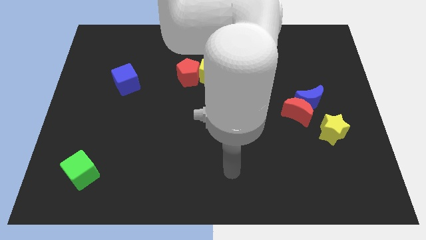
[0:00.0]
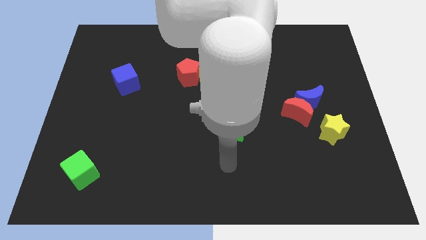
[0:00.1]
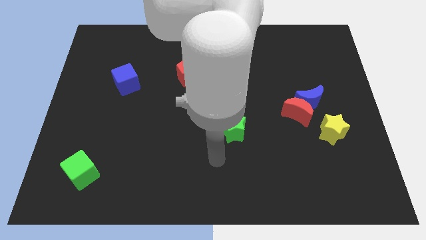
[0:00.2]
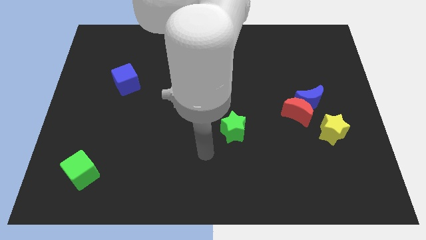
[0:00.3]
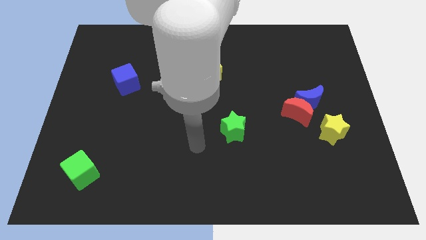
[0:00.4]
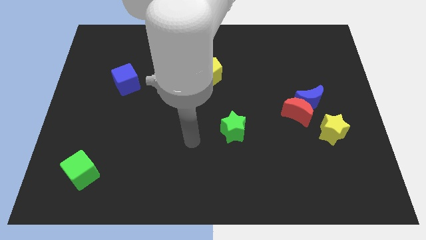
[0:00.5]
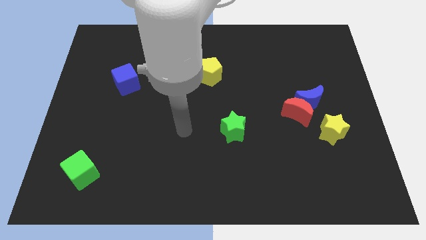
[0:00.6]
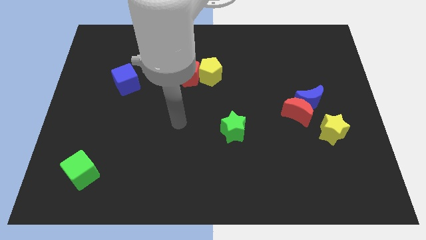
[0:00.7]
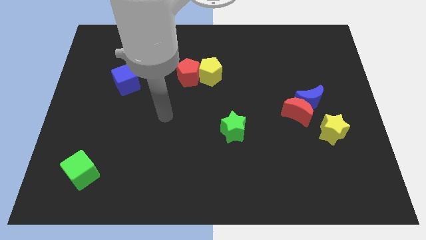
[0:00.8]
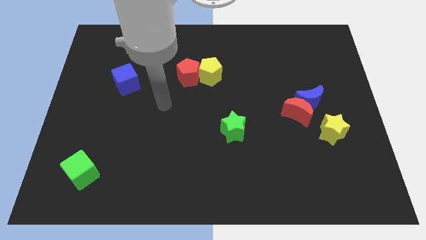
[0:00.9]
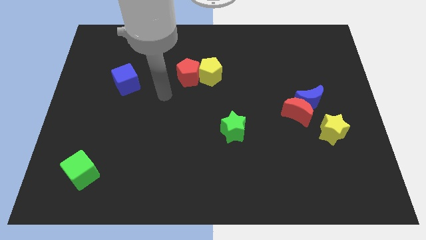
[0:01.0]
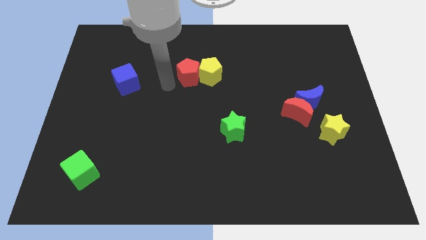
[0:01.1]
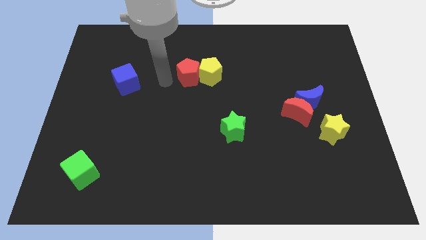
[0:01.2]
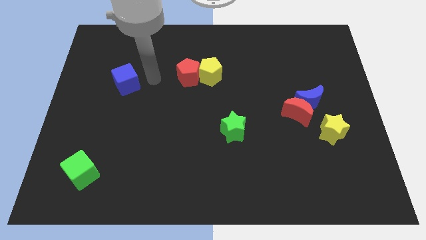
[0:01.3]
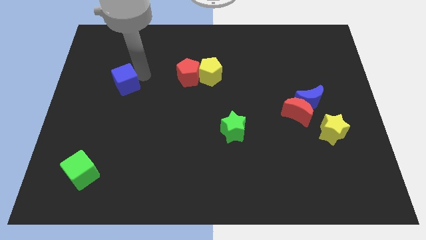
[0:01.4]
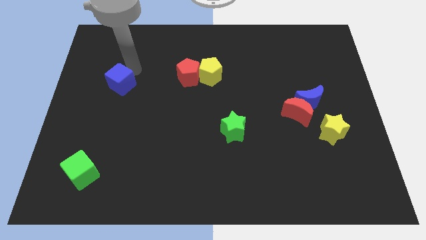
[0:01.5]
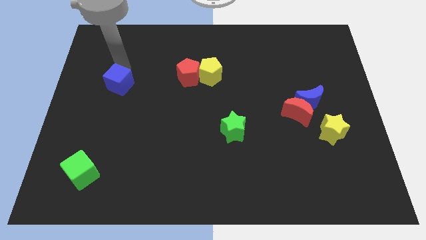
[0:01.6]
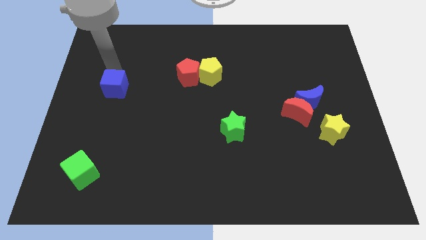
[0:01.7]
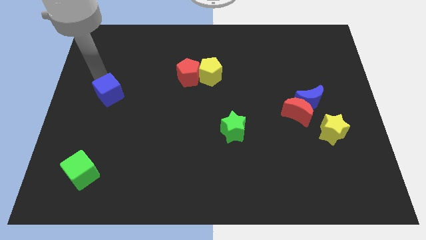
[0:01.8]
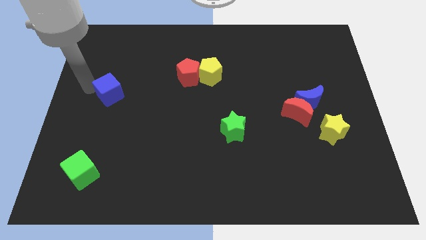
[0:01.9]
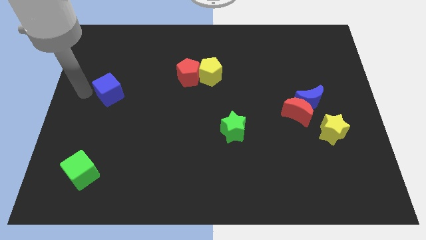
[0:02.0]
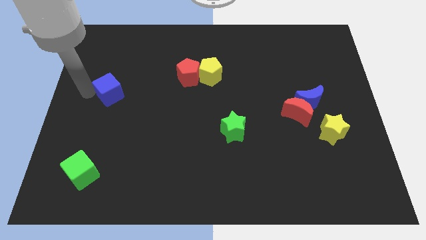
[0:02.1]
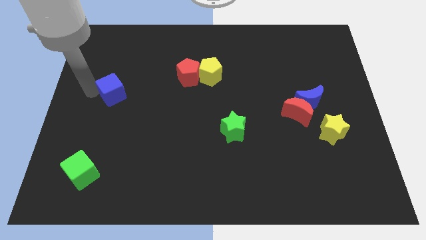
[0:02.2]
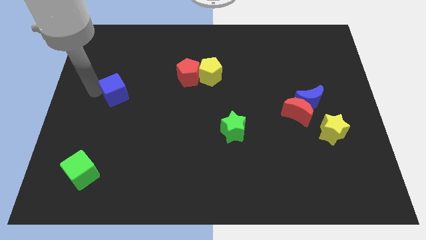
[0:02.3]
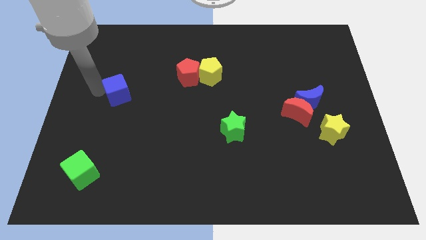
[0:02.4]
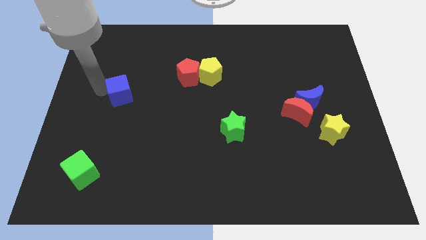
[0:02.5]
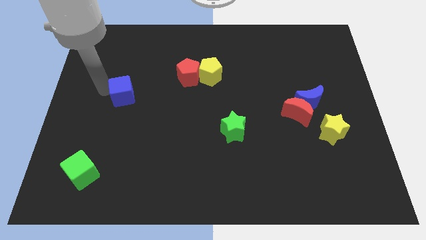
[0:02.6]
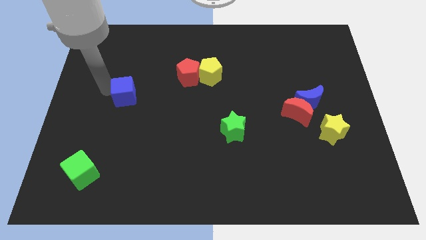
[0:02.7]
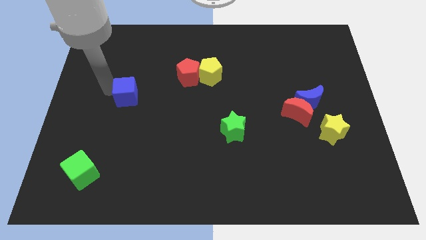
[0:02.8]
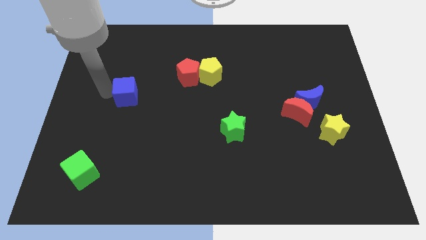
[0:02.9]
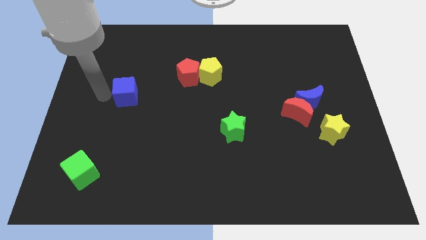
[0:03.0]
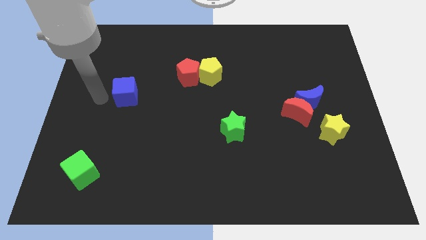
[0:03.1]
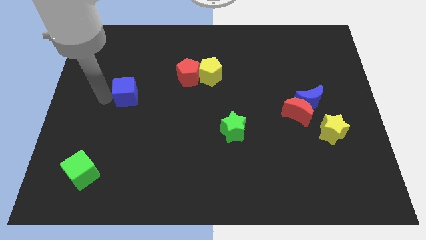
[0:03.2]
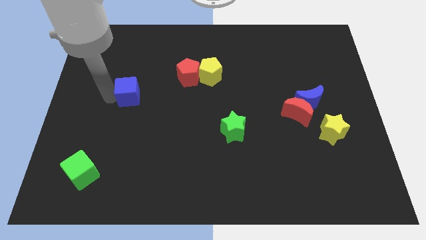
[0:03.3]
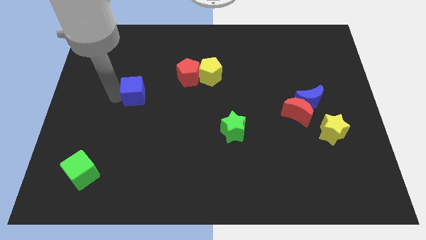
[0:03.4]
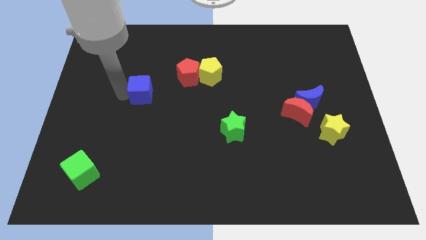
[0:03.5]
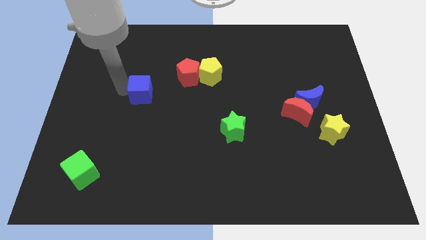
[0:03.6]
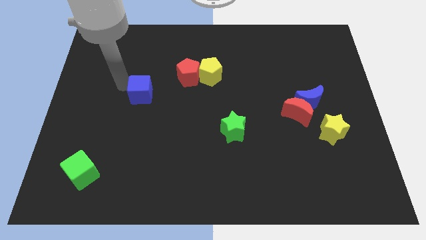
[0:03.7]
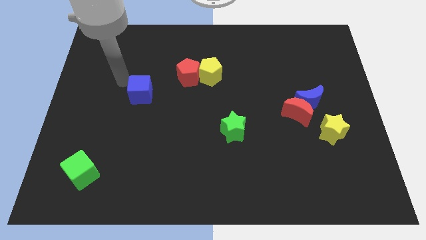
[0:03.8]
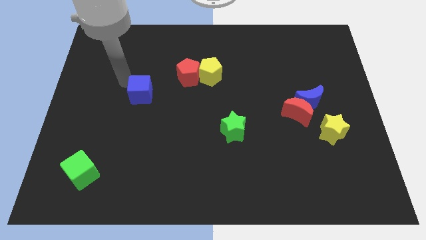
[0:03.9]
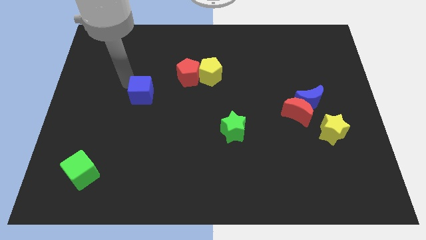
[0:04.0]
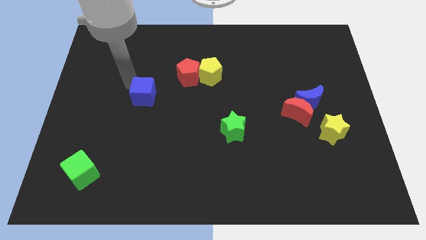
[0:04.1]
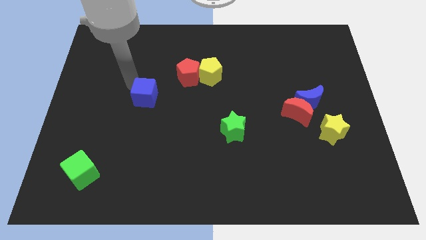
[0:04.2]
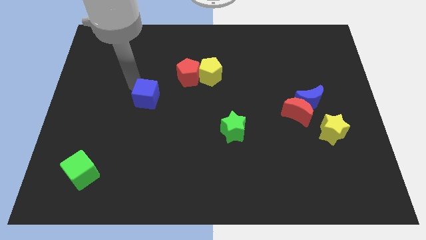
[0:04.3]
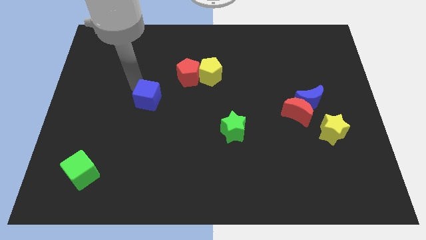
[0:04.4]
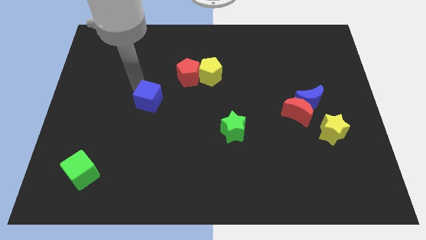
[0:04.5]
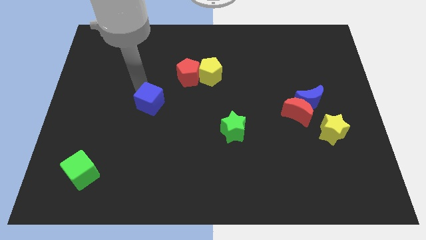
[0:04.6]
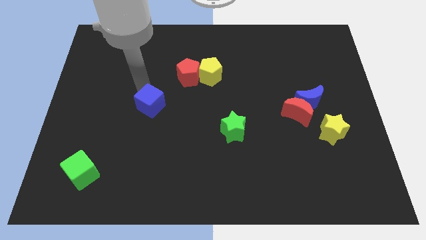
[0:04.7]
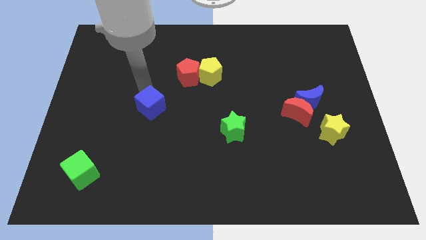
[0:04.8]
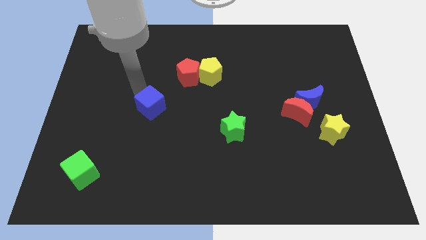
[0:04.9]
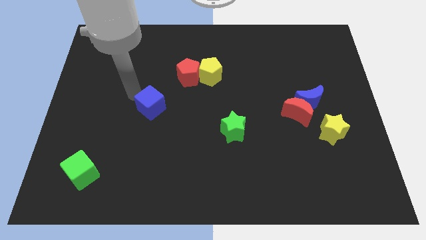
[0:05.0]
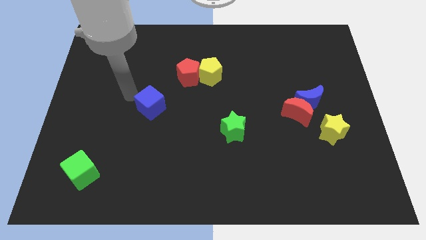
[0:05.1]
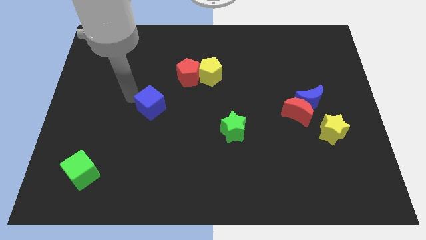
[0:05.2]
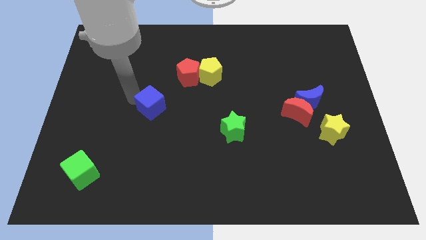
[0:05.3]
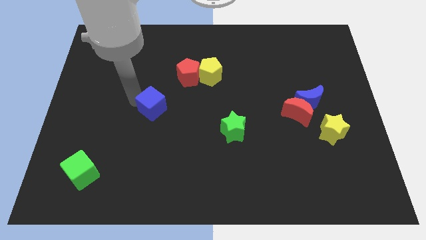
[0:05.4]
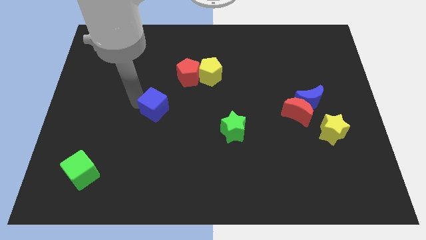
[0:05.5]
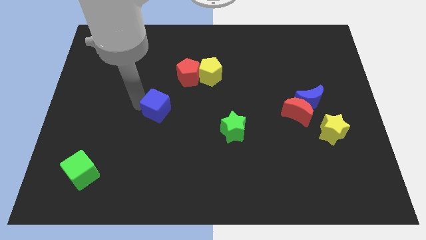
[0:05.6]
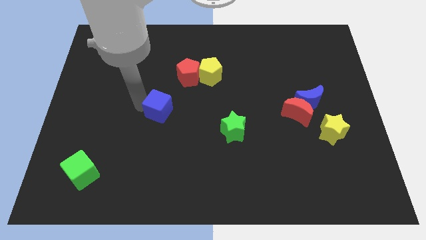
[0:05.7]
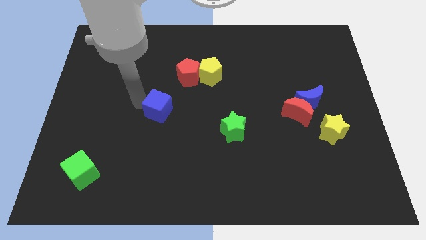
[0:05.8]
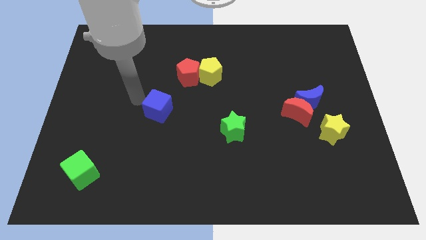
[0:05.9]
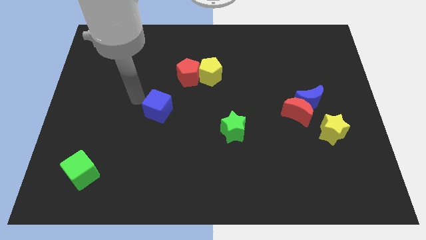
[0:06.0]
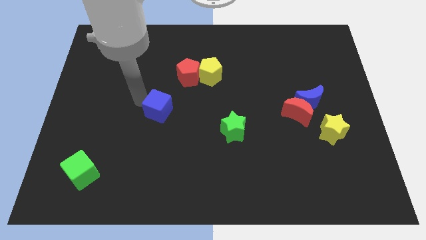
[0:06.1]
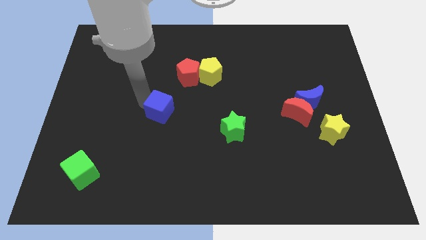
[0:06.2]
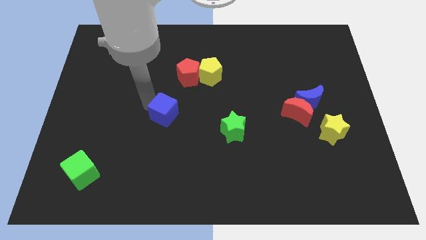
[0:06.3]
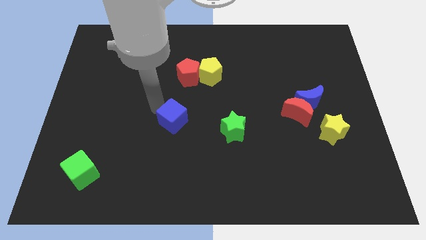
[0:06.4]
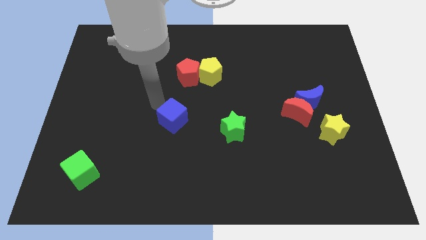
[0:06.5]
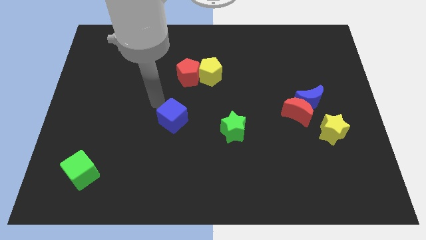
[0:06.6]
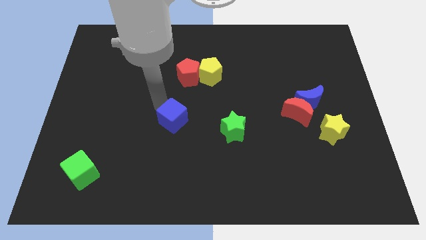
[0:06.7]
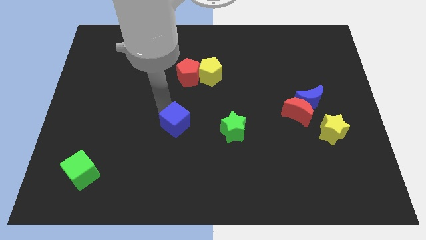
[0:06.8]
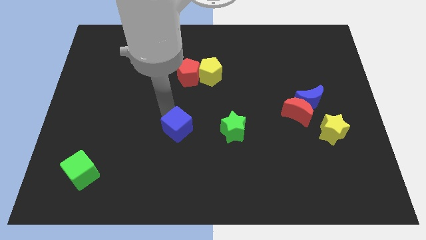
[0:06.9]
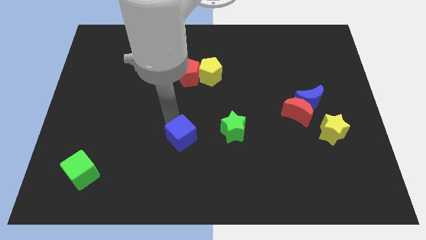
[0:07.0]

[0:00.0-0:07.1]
move the blue cube downwards and right

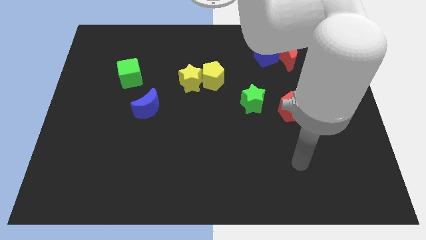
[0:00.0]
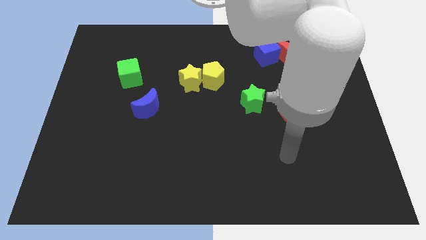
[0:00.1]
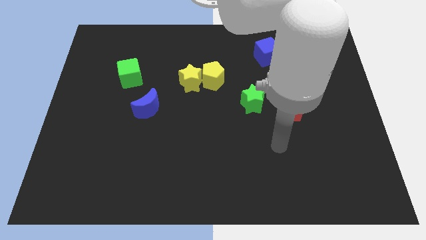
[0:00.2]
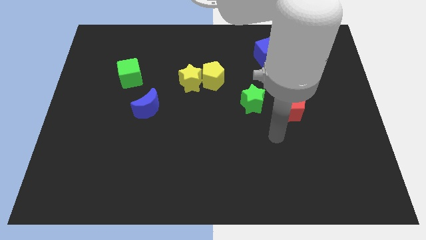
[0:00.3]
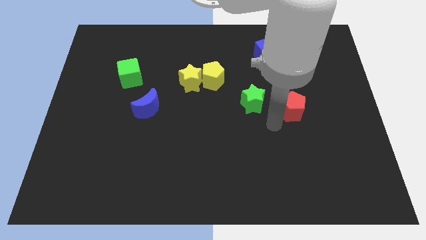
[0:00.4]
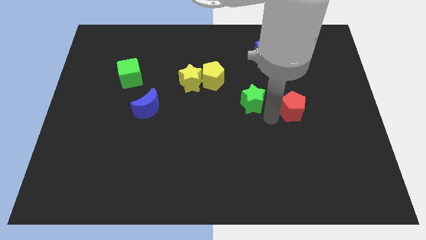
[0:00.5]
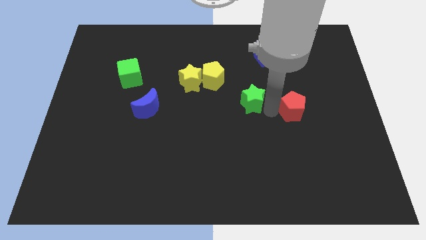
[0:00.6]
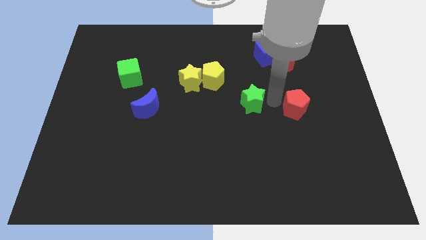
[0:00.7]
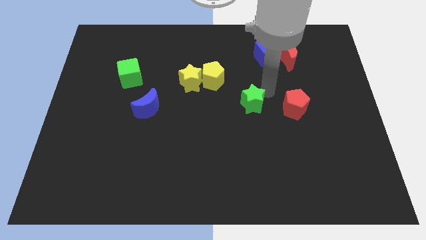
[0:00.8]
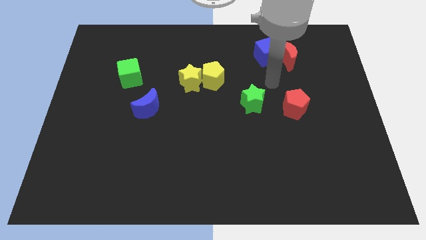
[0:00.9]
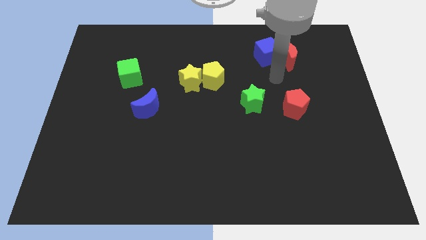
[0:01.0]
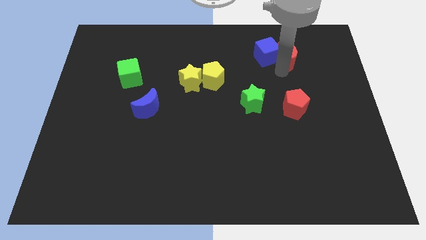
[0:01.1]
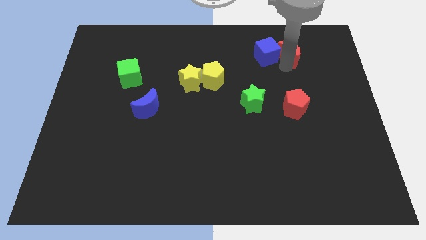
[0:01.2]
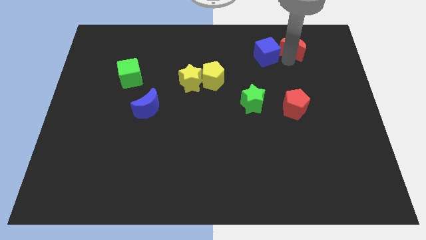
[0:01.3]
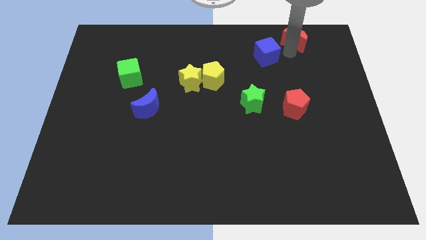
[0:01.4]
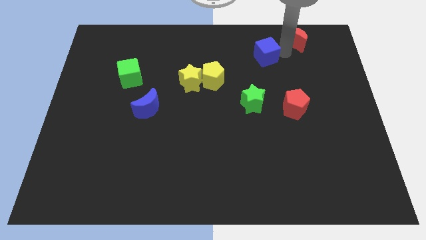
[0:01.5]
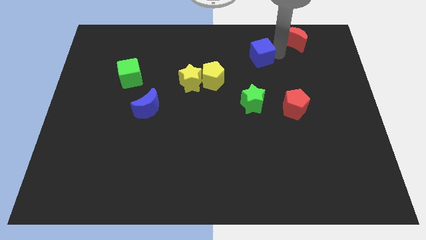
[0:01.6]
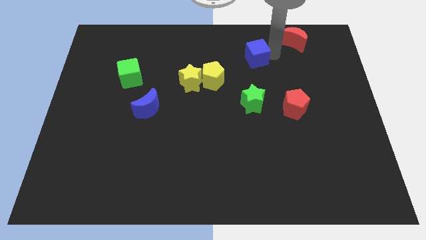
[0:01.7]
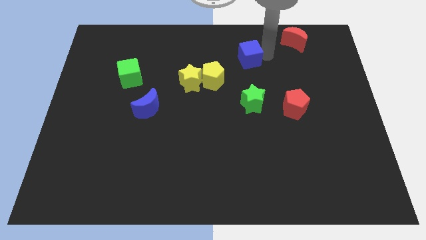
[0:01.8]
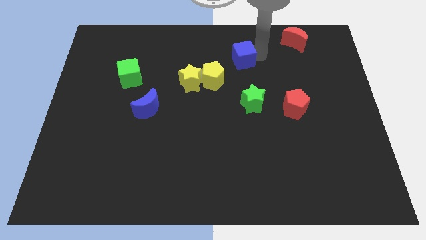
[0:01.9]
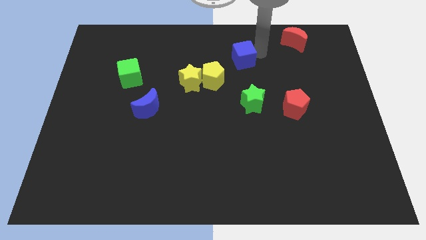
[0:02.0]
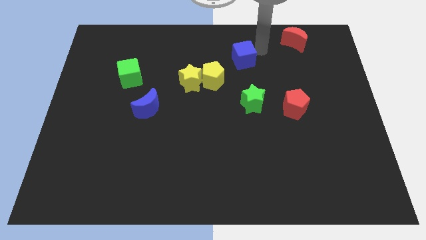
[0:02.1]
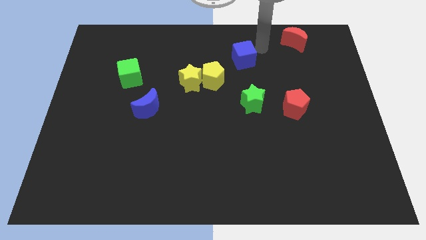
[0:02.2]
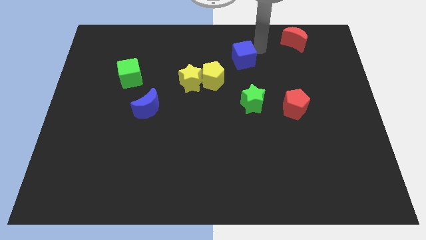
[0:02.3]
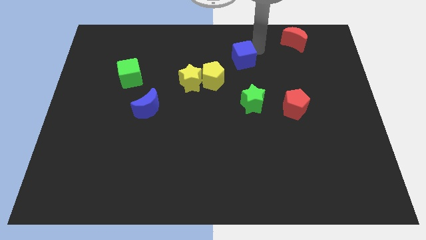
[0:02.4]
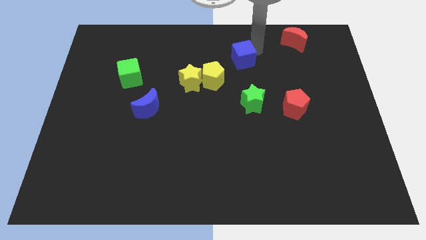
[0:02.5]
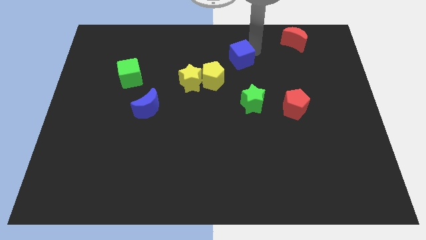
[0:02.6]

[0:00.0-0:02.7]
slide the blue cube to the left a bit
